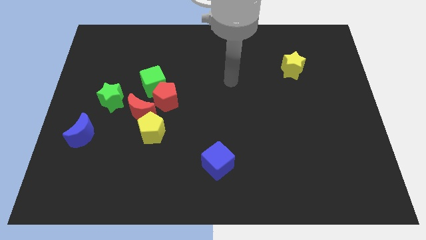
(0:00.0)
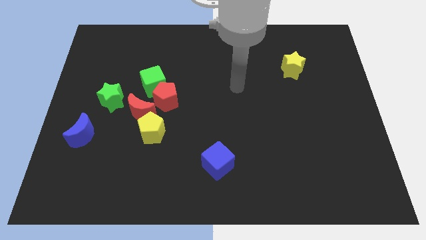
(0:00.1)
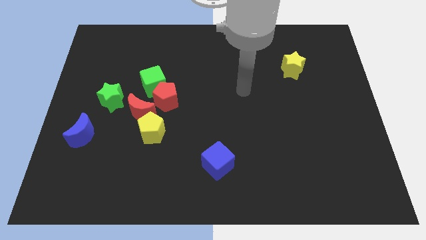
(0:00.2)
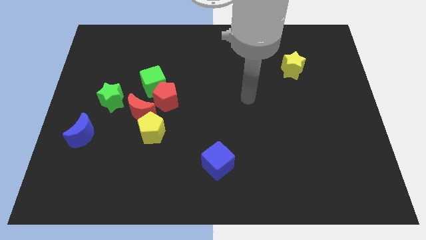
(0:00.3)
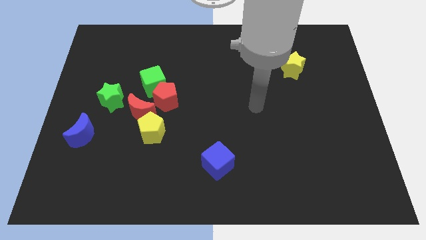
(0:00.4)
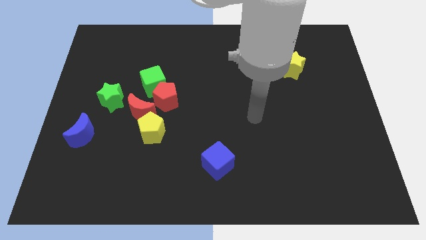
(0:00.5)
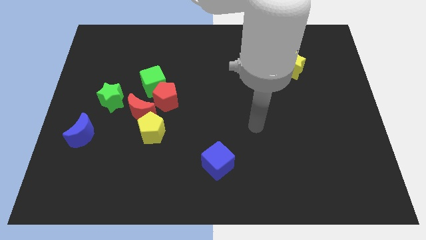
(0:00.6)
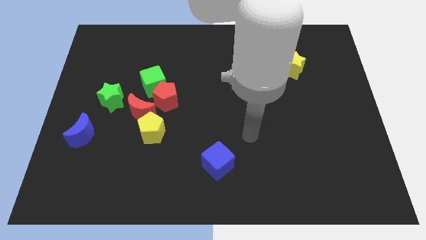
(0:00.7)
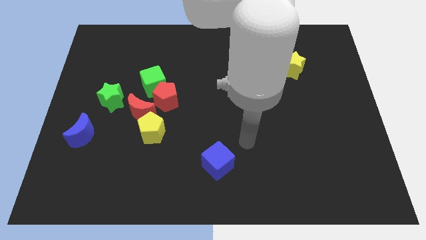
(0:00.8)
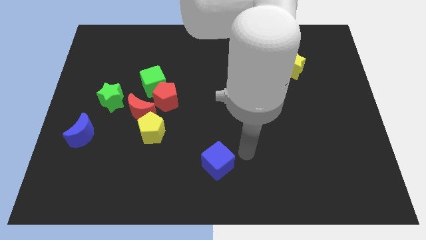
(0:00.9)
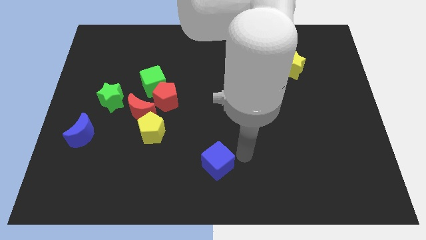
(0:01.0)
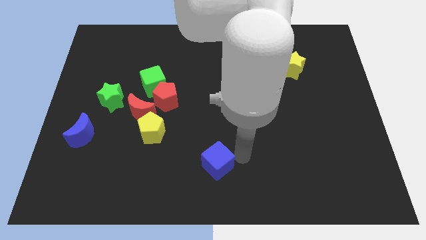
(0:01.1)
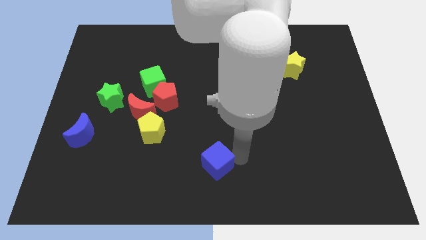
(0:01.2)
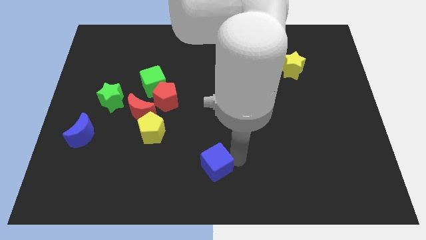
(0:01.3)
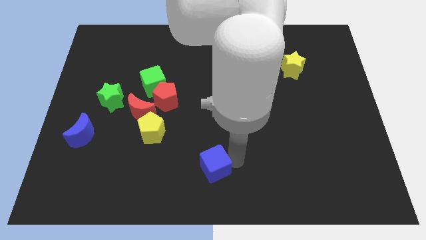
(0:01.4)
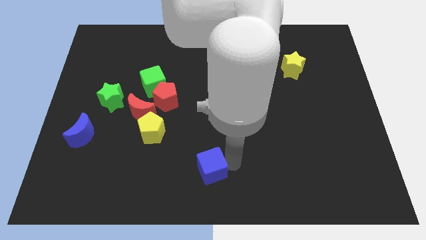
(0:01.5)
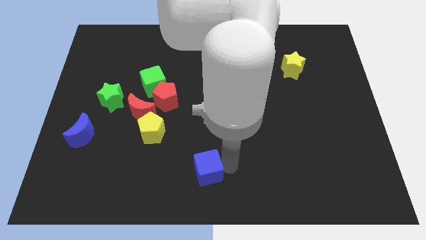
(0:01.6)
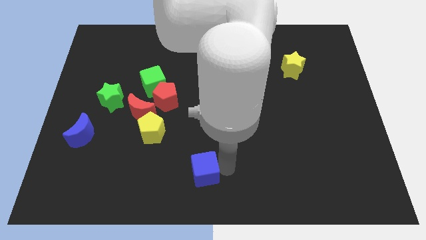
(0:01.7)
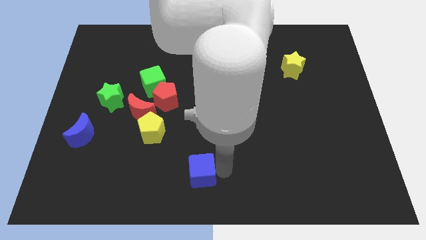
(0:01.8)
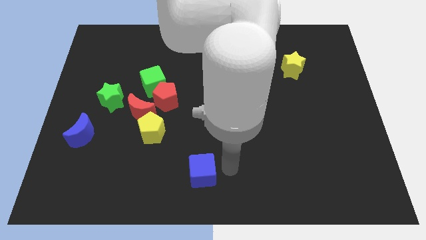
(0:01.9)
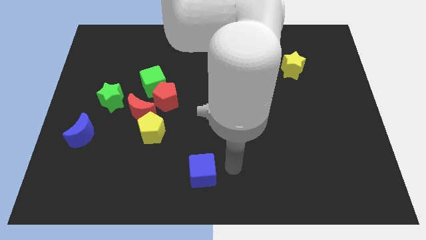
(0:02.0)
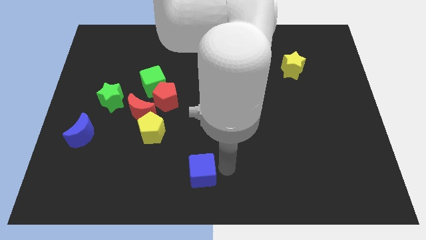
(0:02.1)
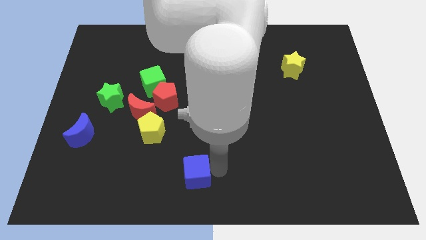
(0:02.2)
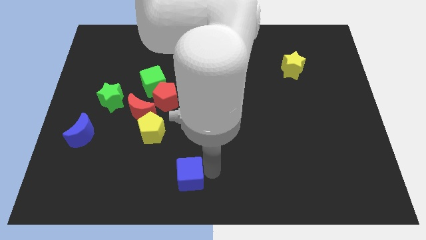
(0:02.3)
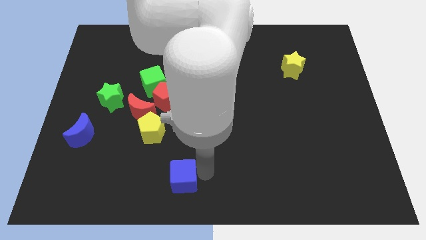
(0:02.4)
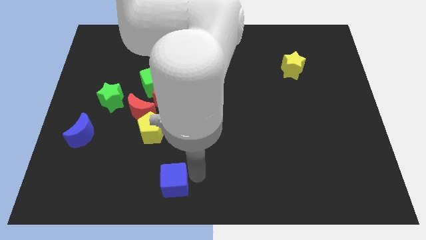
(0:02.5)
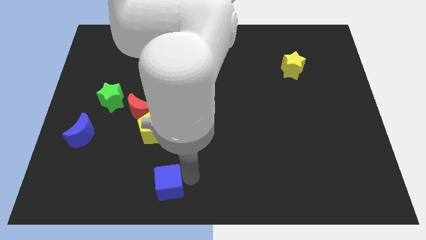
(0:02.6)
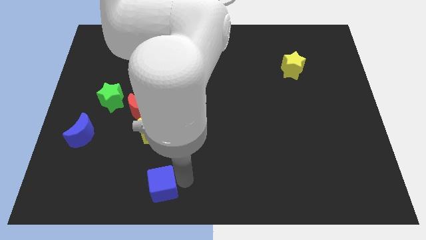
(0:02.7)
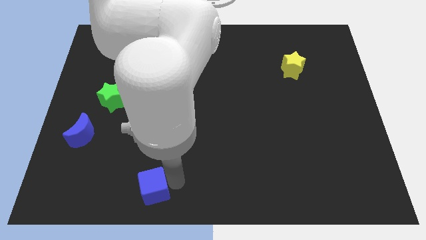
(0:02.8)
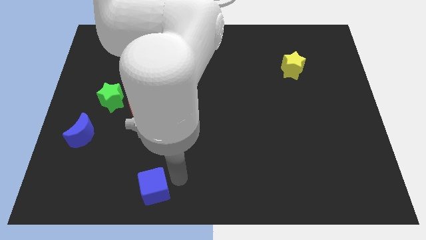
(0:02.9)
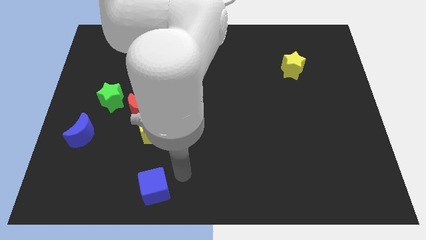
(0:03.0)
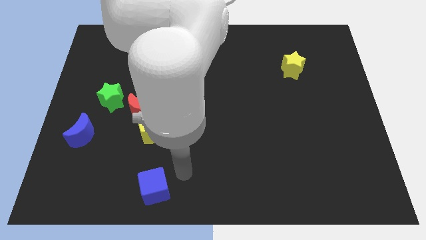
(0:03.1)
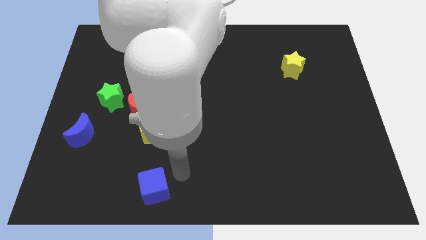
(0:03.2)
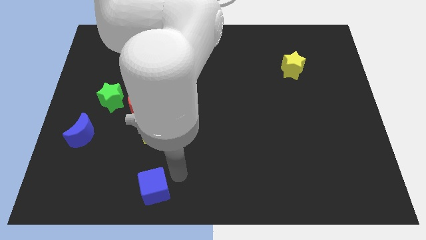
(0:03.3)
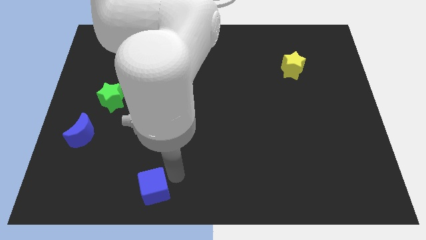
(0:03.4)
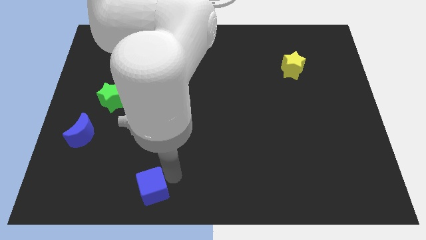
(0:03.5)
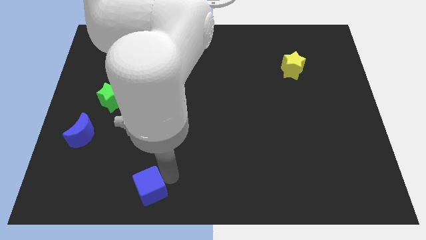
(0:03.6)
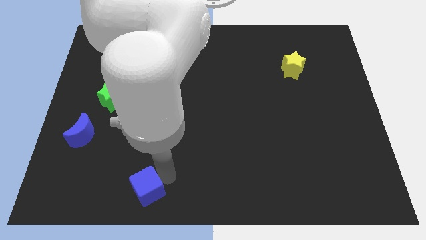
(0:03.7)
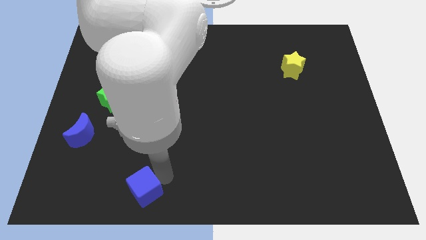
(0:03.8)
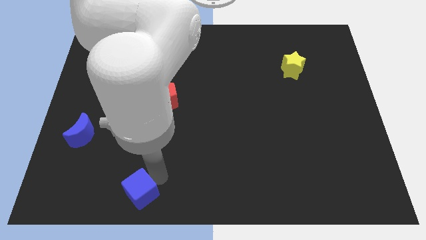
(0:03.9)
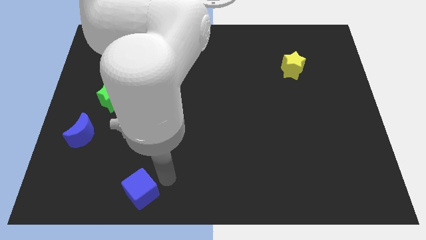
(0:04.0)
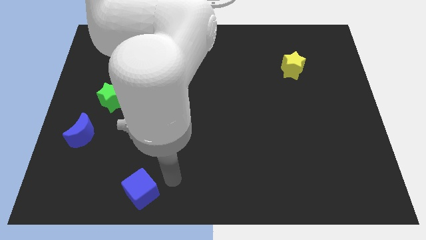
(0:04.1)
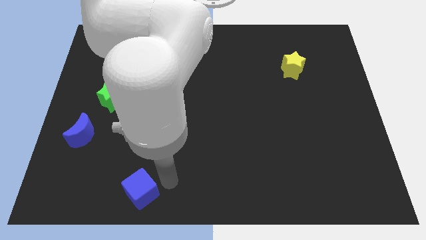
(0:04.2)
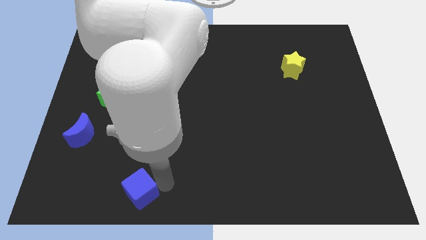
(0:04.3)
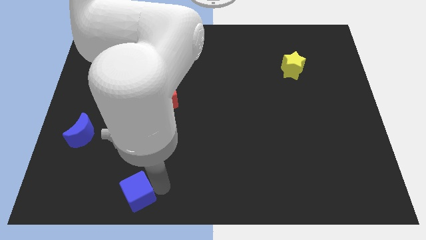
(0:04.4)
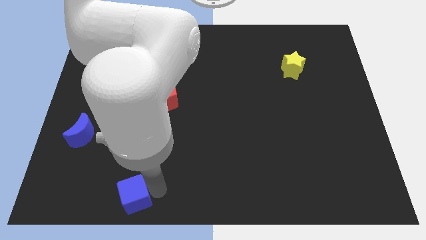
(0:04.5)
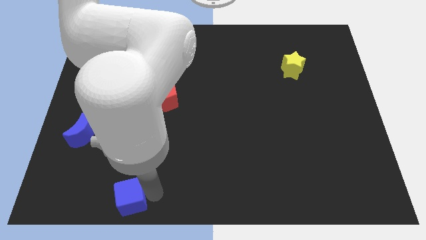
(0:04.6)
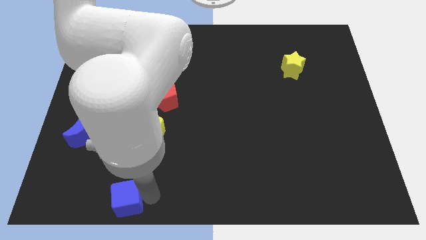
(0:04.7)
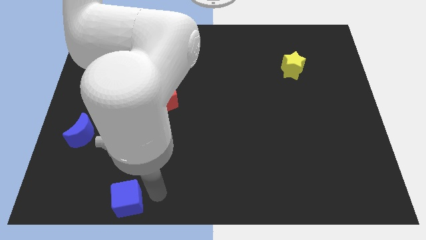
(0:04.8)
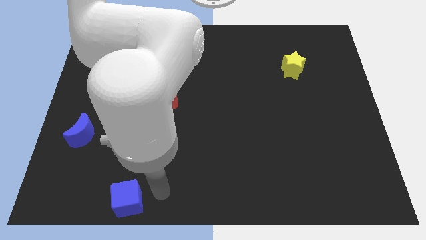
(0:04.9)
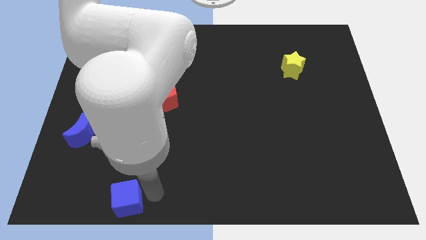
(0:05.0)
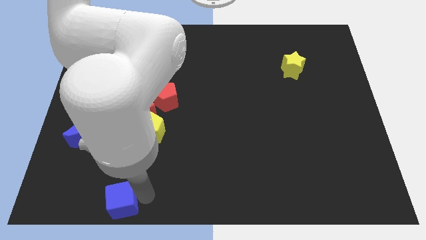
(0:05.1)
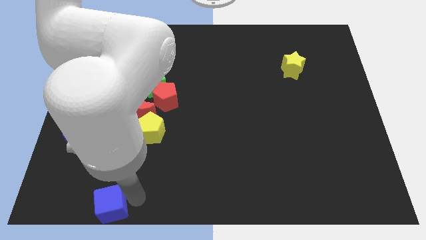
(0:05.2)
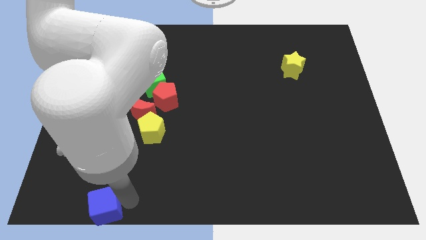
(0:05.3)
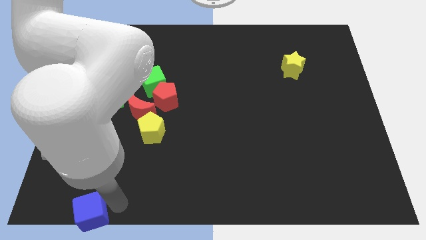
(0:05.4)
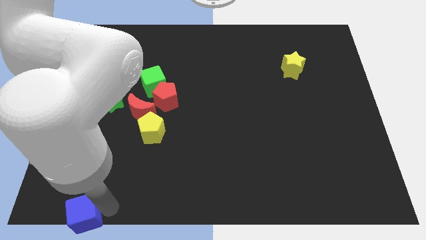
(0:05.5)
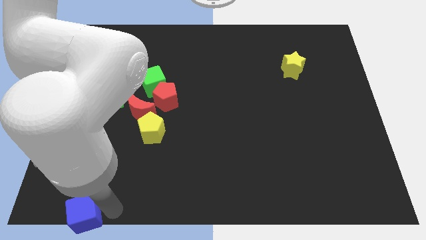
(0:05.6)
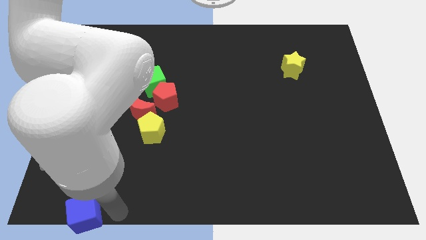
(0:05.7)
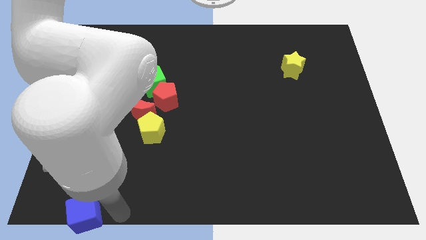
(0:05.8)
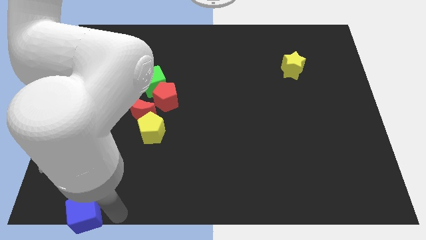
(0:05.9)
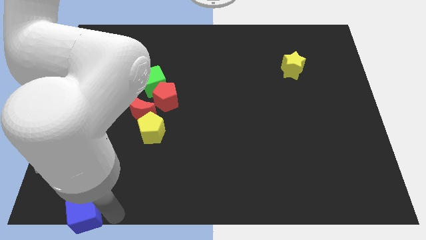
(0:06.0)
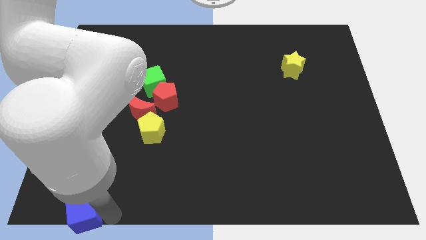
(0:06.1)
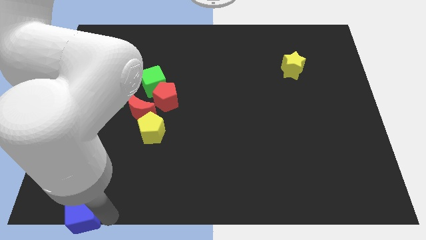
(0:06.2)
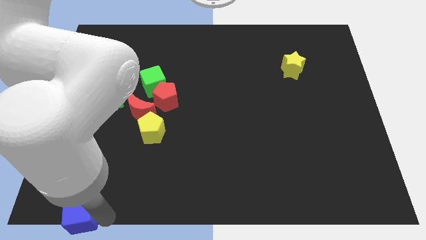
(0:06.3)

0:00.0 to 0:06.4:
slide the blue cube to the lower left corner

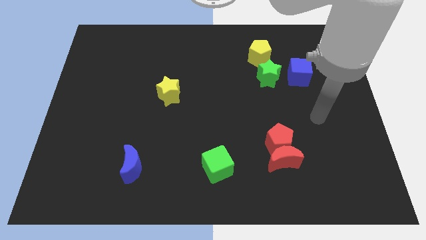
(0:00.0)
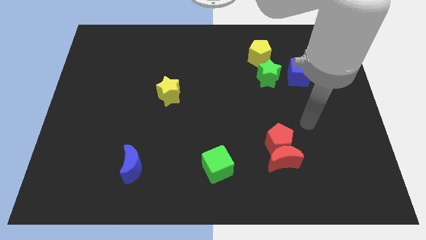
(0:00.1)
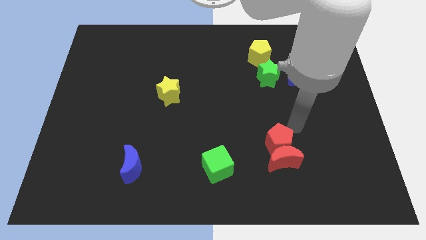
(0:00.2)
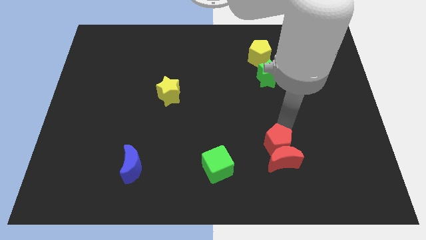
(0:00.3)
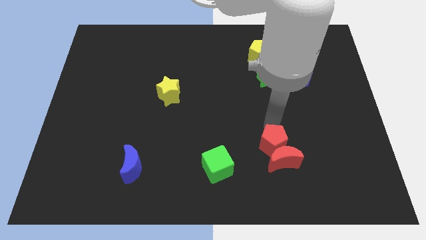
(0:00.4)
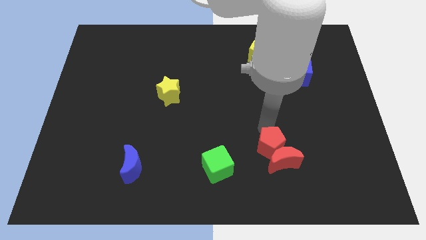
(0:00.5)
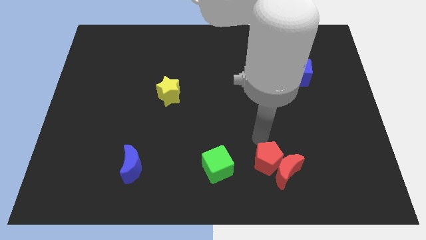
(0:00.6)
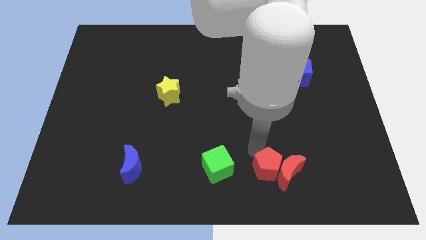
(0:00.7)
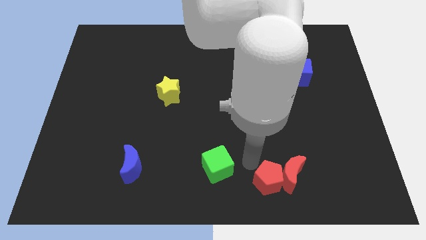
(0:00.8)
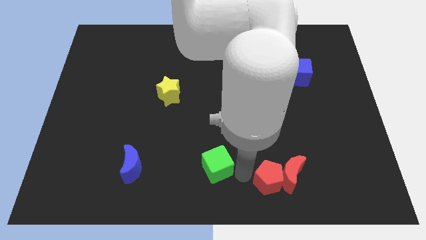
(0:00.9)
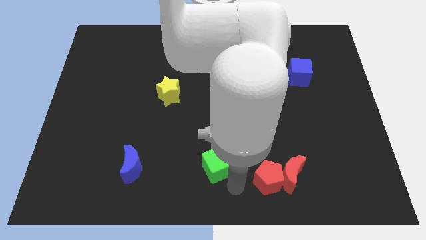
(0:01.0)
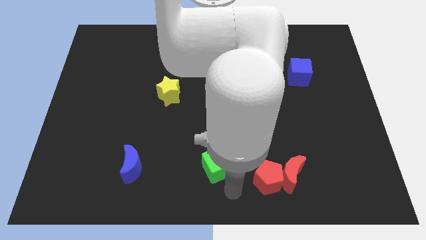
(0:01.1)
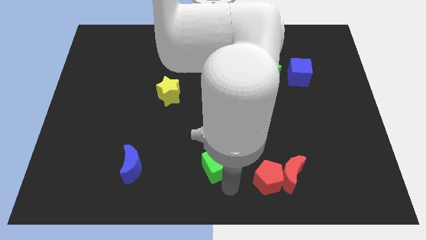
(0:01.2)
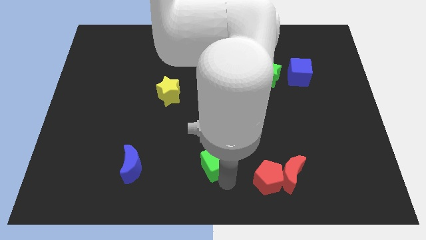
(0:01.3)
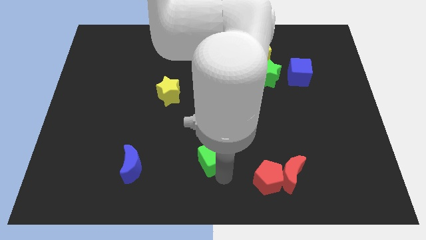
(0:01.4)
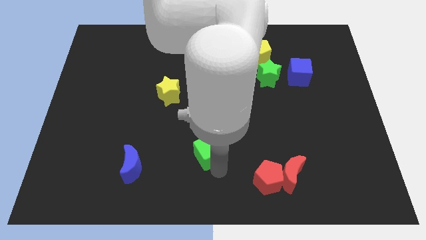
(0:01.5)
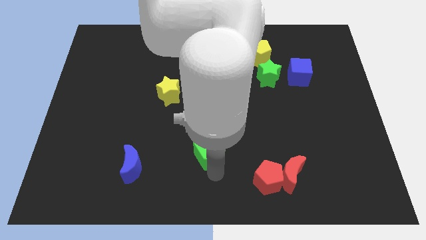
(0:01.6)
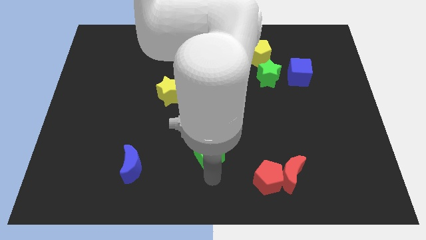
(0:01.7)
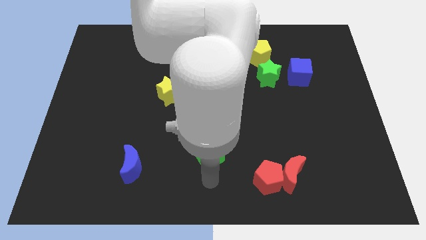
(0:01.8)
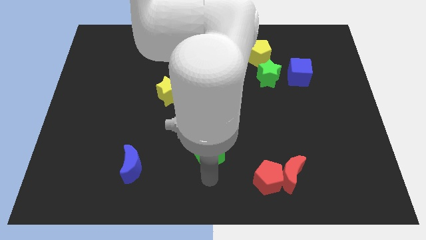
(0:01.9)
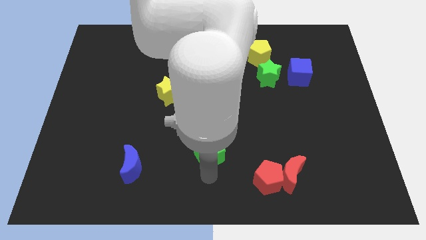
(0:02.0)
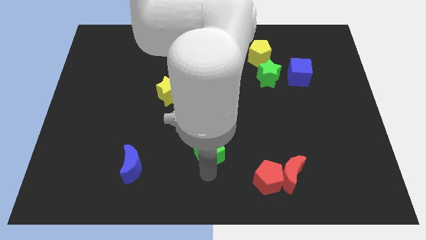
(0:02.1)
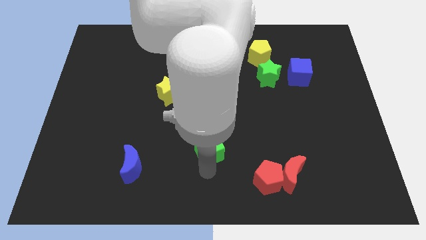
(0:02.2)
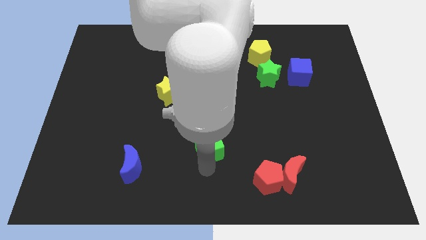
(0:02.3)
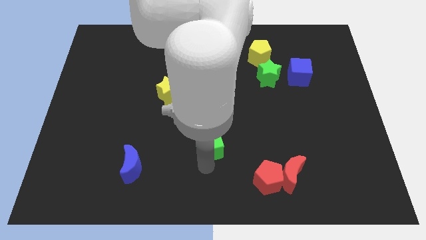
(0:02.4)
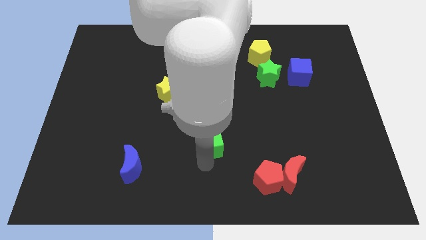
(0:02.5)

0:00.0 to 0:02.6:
move the green cube to the middle
